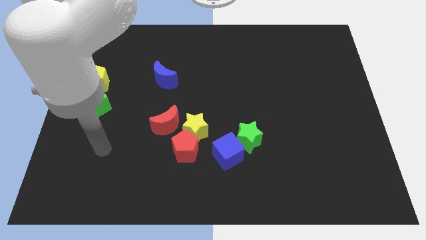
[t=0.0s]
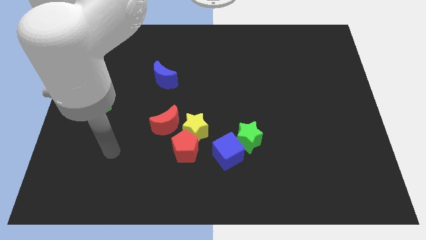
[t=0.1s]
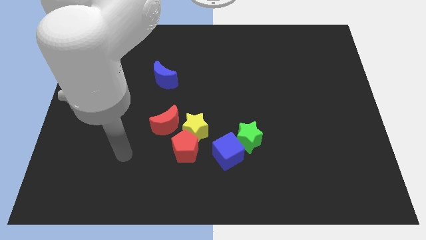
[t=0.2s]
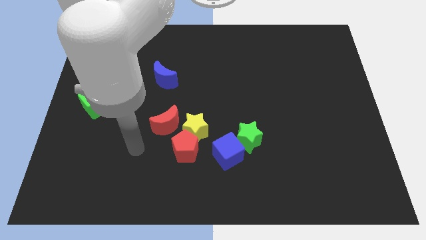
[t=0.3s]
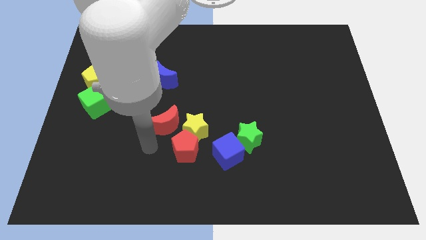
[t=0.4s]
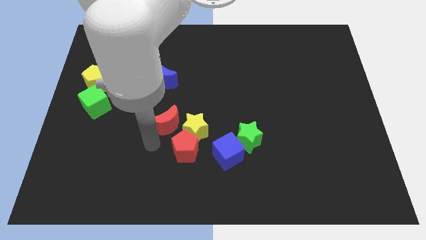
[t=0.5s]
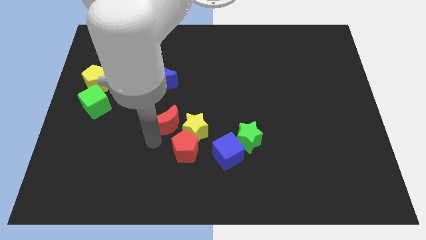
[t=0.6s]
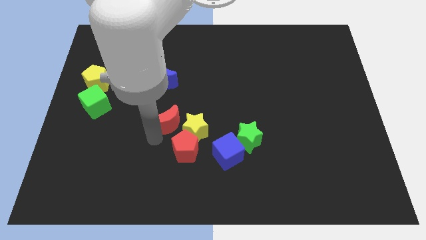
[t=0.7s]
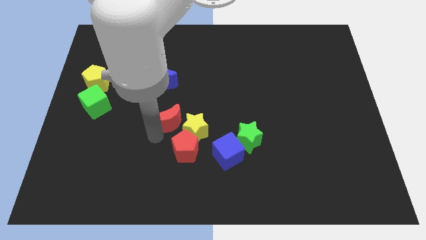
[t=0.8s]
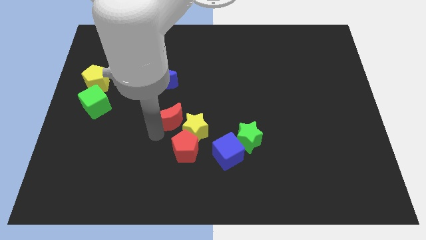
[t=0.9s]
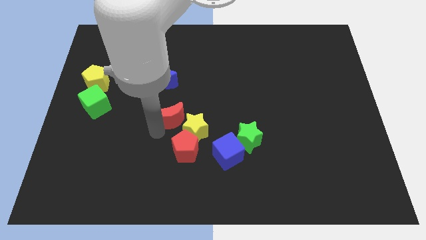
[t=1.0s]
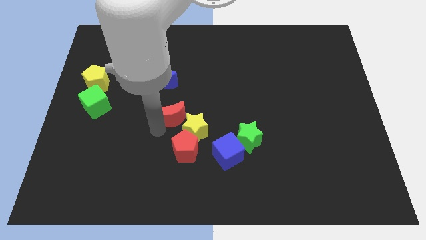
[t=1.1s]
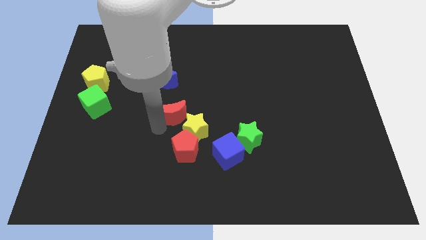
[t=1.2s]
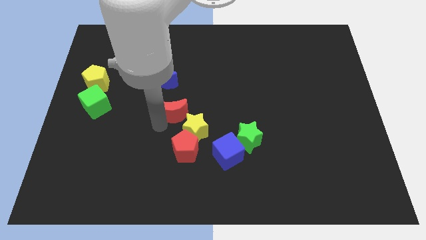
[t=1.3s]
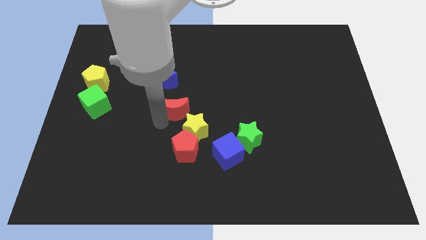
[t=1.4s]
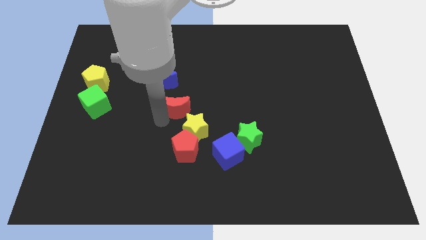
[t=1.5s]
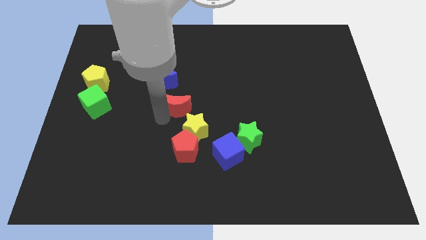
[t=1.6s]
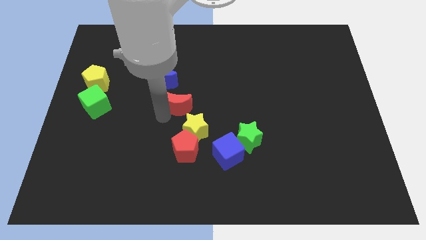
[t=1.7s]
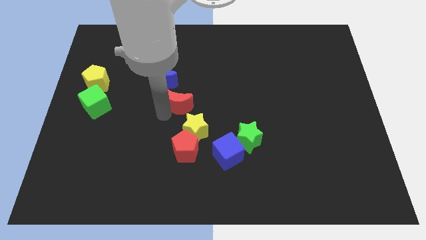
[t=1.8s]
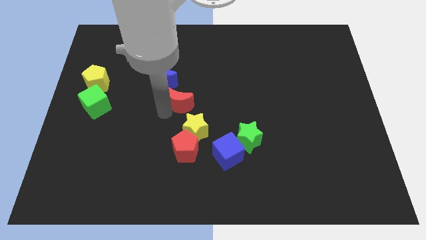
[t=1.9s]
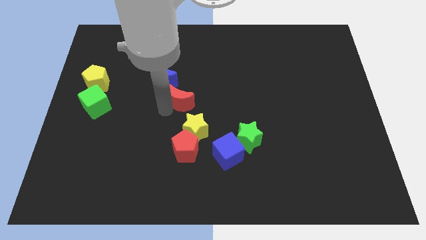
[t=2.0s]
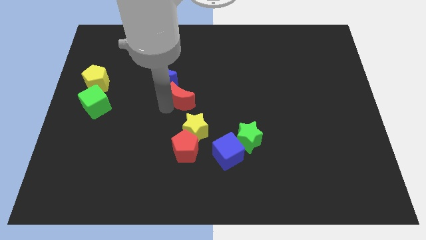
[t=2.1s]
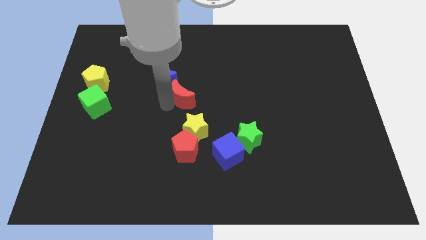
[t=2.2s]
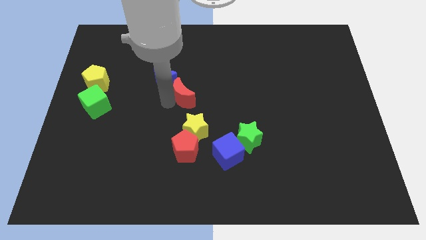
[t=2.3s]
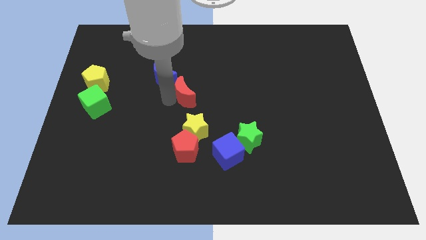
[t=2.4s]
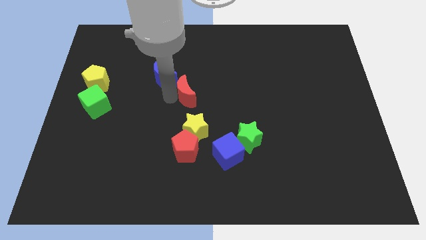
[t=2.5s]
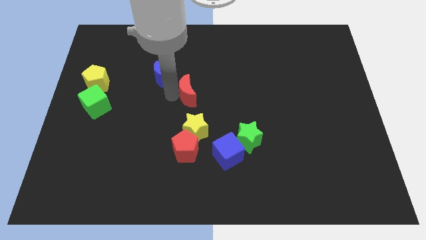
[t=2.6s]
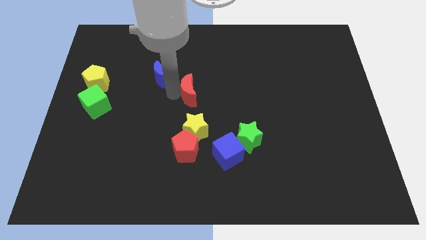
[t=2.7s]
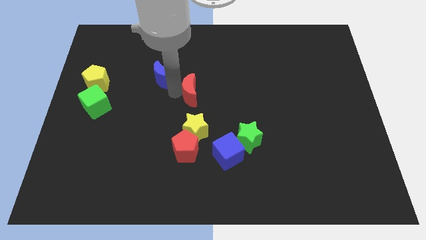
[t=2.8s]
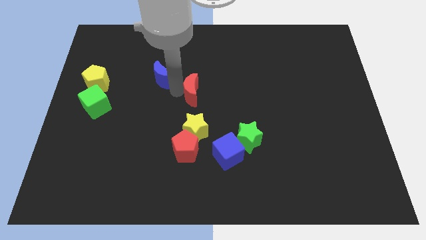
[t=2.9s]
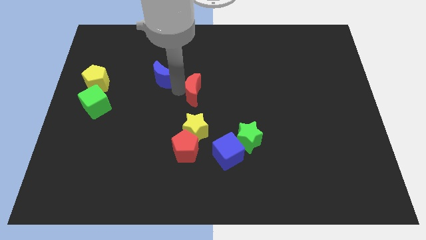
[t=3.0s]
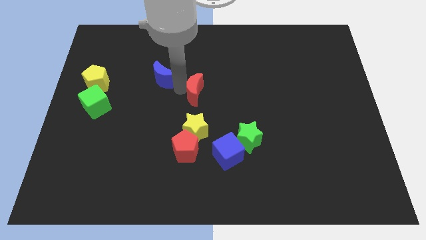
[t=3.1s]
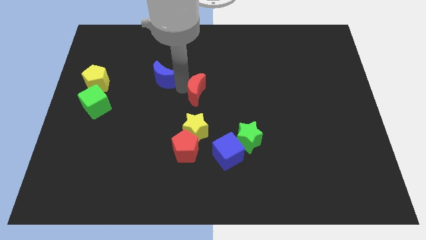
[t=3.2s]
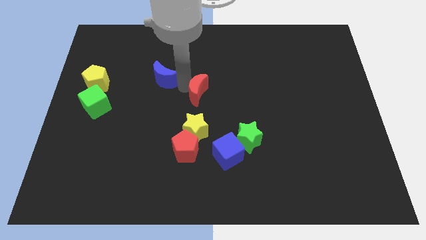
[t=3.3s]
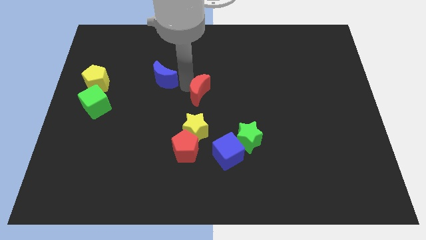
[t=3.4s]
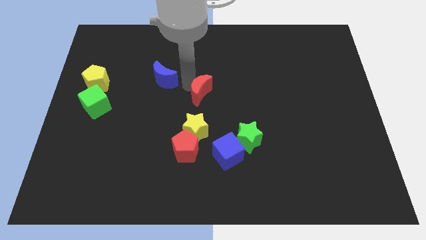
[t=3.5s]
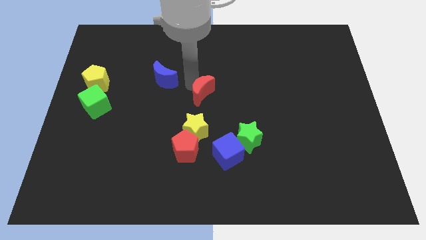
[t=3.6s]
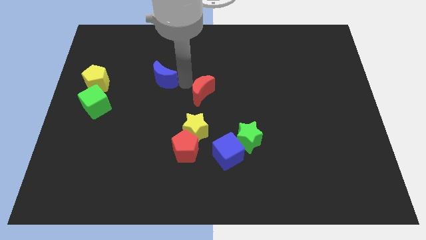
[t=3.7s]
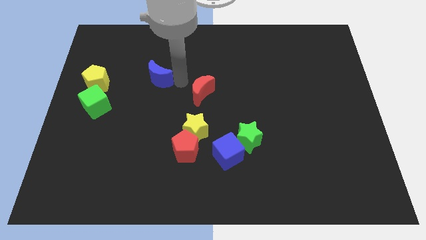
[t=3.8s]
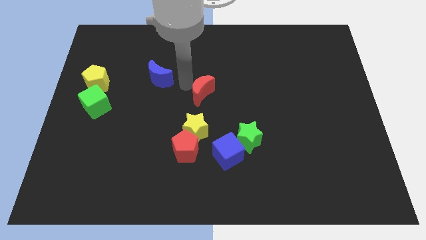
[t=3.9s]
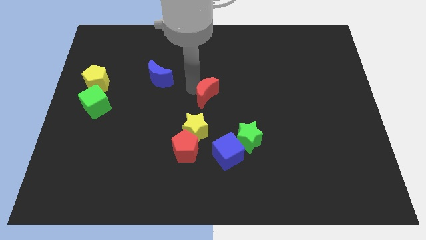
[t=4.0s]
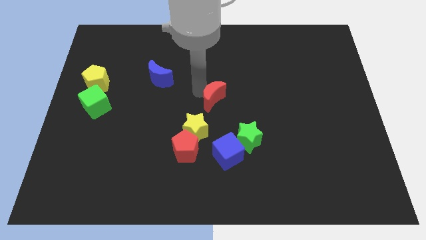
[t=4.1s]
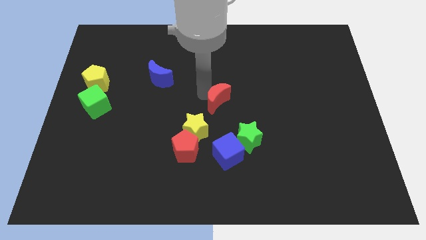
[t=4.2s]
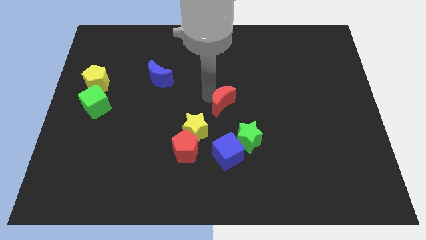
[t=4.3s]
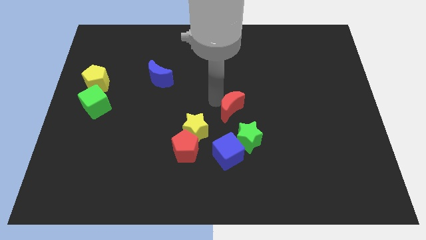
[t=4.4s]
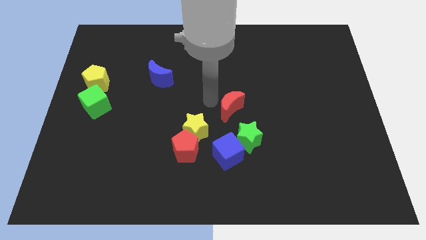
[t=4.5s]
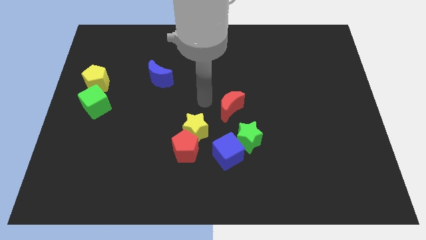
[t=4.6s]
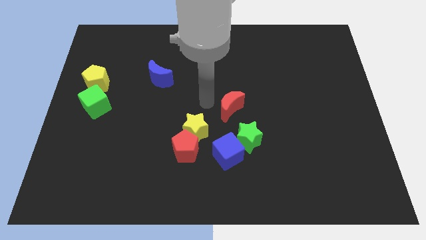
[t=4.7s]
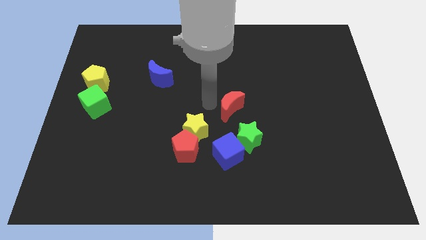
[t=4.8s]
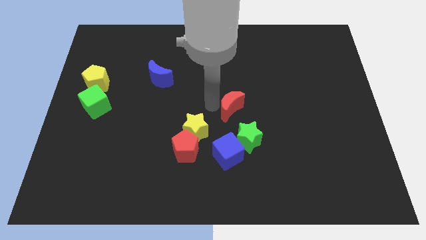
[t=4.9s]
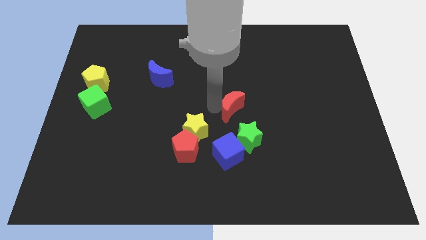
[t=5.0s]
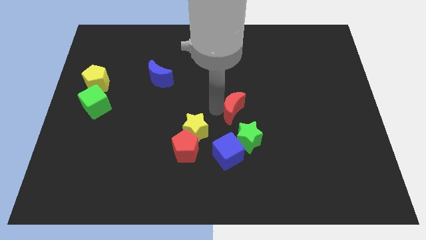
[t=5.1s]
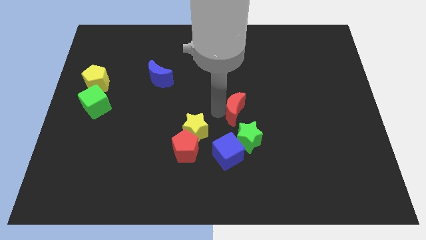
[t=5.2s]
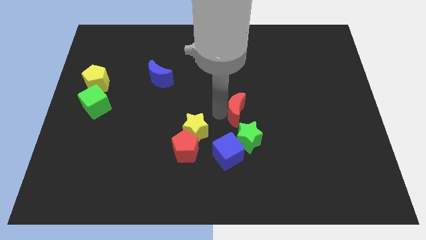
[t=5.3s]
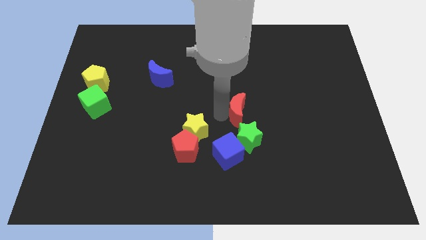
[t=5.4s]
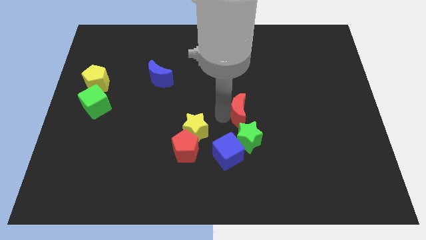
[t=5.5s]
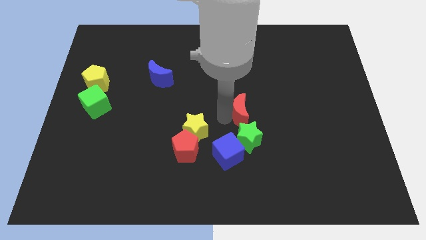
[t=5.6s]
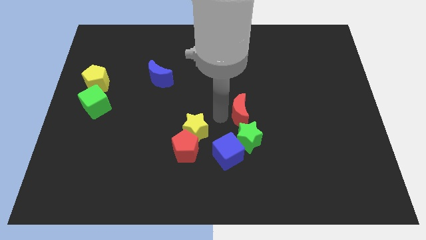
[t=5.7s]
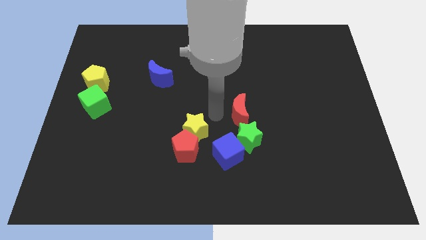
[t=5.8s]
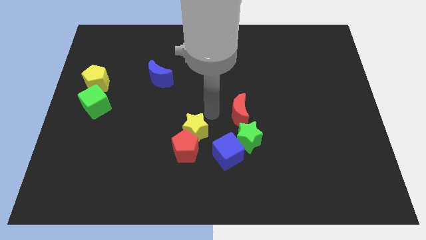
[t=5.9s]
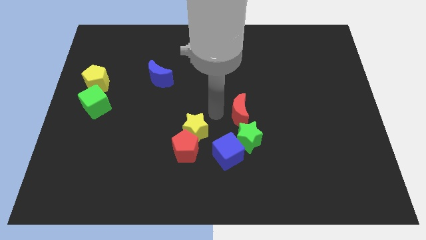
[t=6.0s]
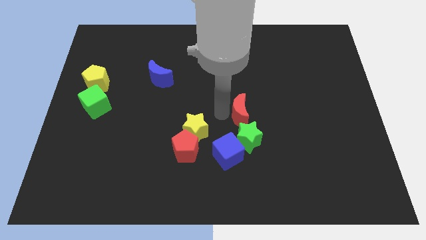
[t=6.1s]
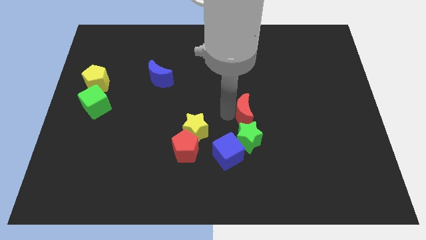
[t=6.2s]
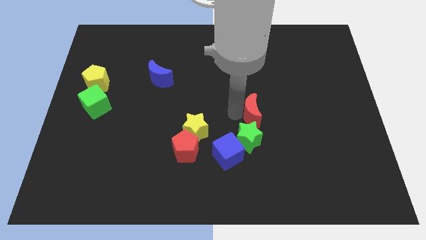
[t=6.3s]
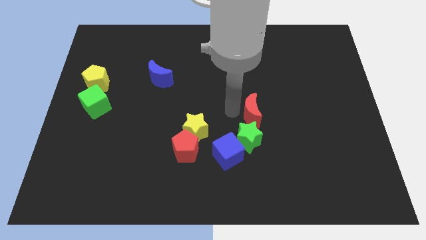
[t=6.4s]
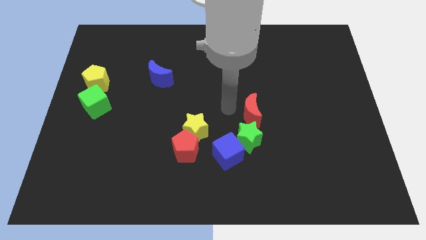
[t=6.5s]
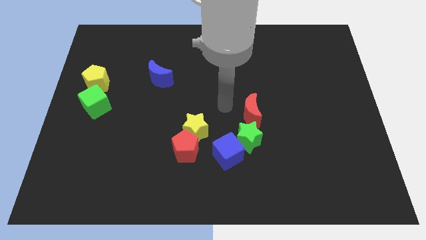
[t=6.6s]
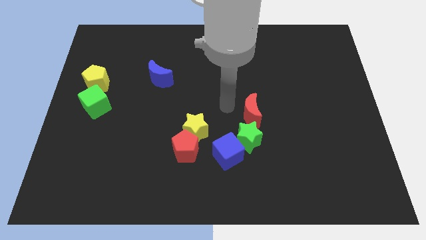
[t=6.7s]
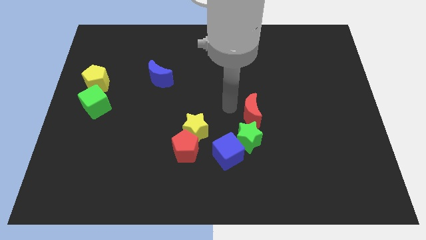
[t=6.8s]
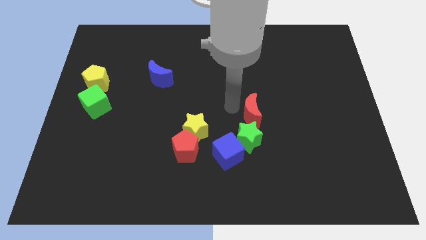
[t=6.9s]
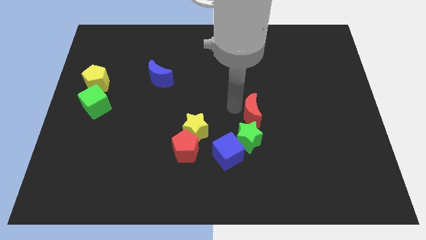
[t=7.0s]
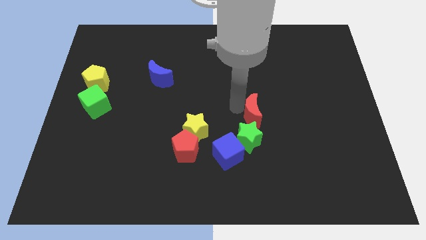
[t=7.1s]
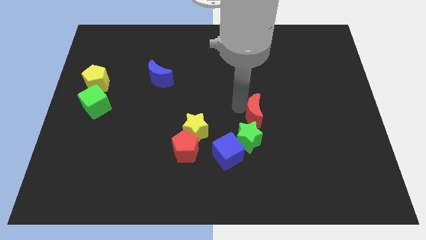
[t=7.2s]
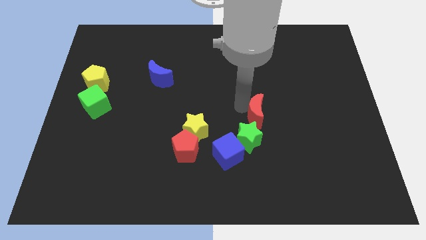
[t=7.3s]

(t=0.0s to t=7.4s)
slide the red moon to the right

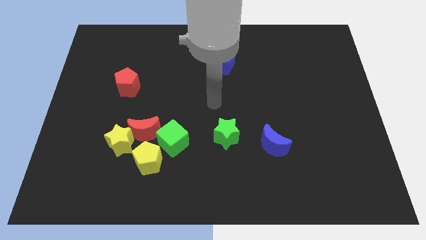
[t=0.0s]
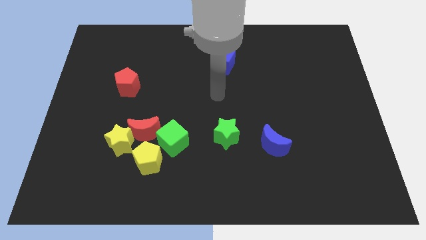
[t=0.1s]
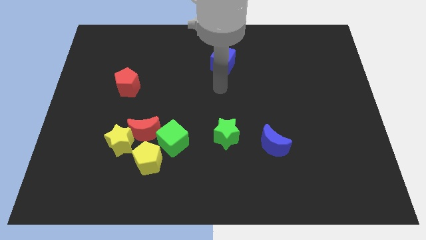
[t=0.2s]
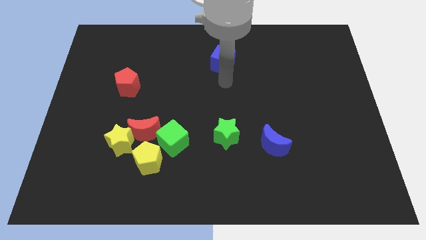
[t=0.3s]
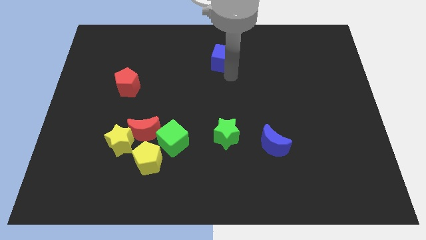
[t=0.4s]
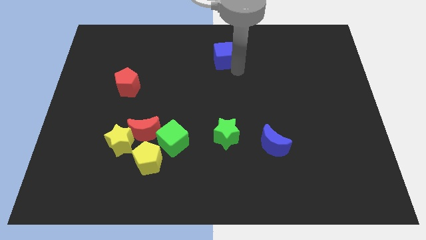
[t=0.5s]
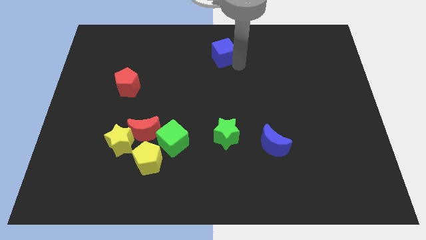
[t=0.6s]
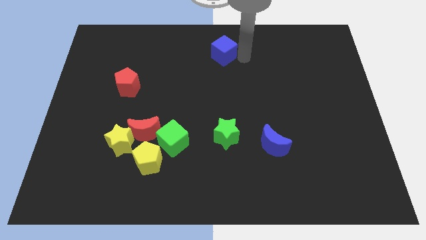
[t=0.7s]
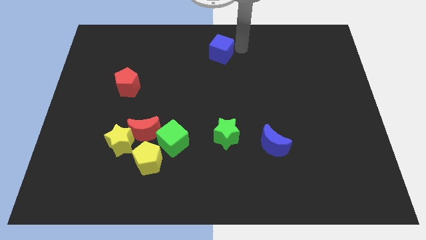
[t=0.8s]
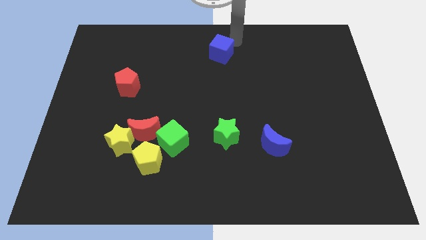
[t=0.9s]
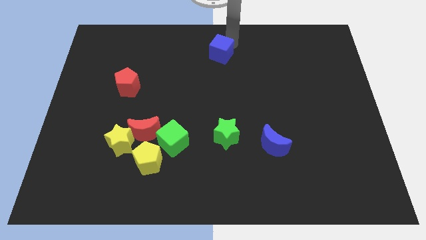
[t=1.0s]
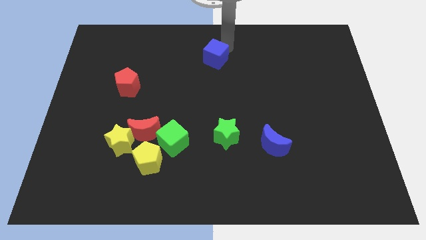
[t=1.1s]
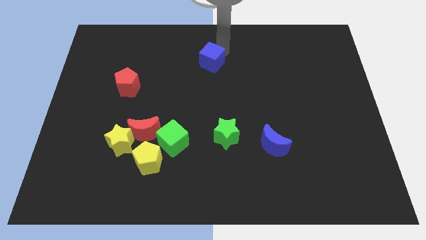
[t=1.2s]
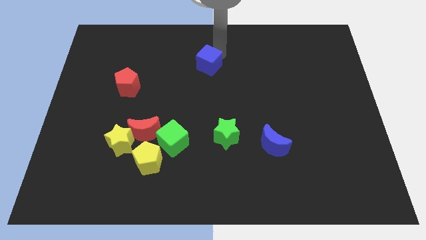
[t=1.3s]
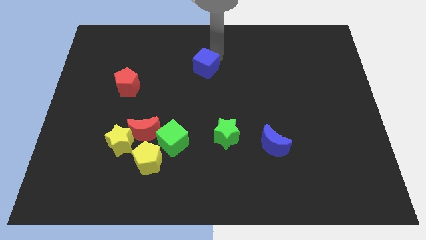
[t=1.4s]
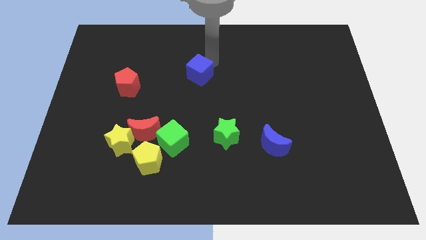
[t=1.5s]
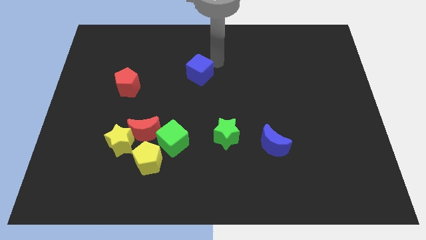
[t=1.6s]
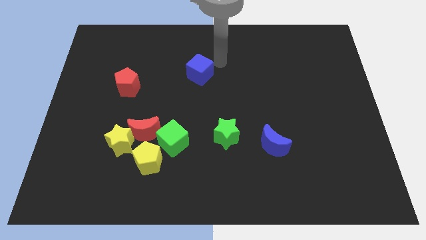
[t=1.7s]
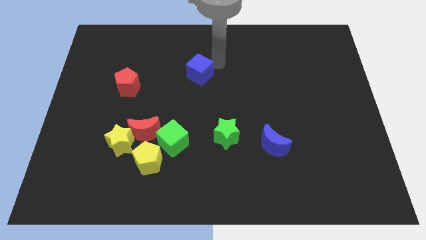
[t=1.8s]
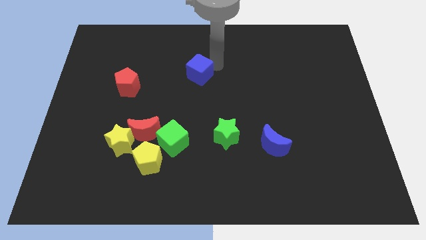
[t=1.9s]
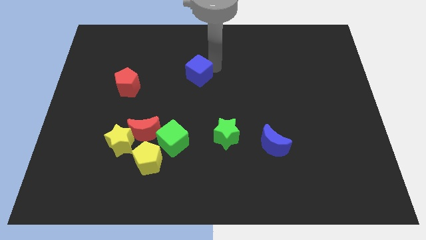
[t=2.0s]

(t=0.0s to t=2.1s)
slightly move the blue cube downwards and then to the left
